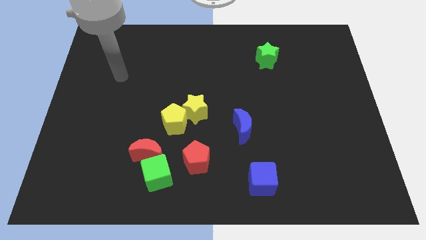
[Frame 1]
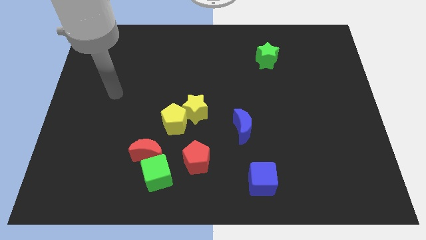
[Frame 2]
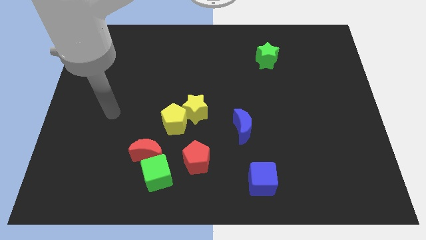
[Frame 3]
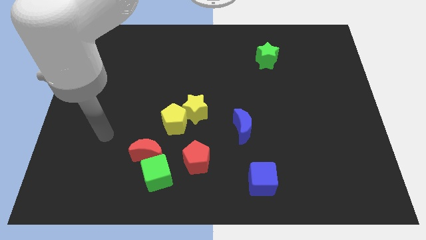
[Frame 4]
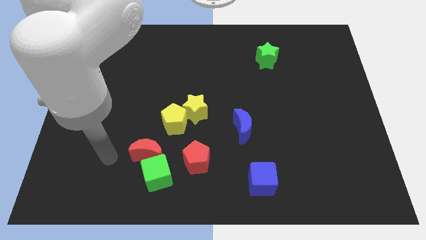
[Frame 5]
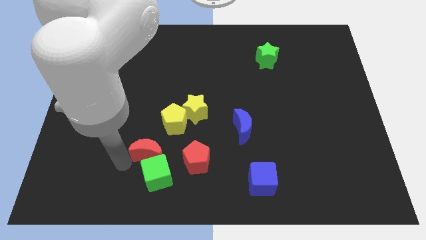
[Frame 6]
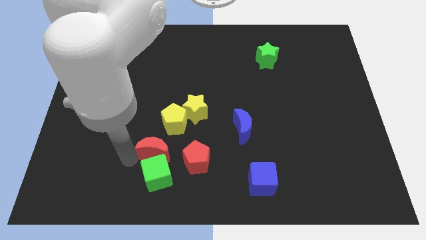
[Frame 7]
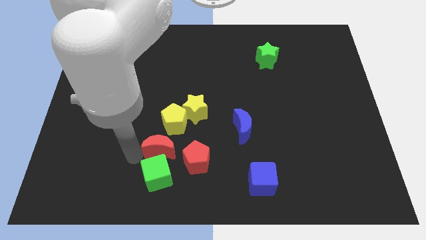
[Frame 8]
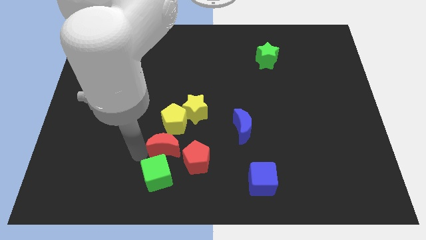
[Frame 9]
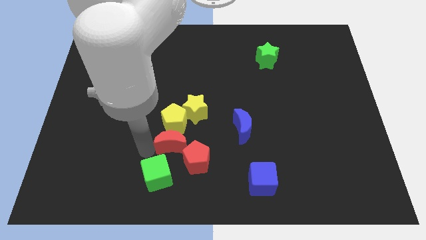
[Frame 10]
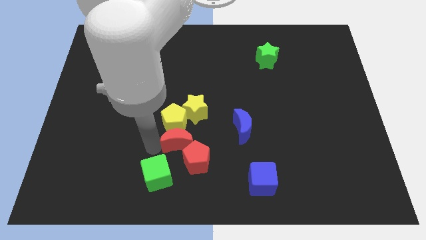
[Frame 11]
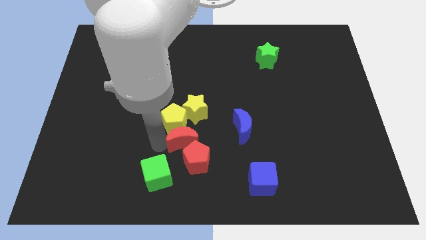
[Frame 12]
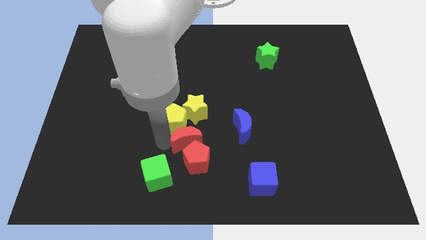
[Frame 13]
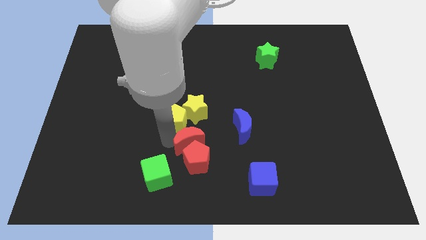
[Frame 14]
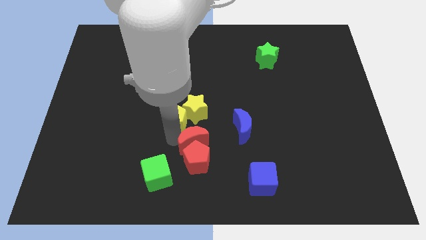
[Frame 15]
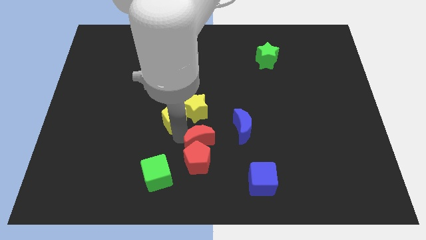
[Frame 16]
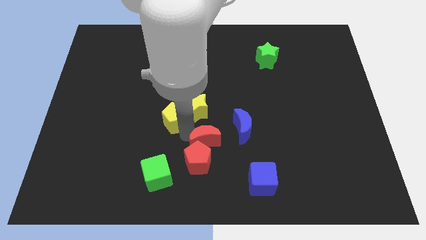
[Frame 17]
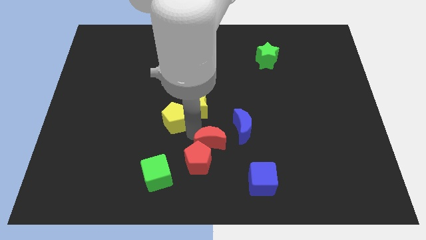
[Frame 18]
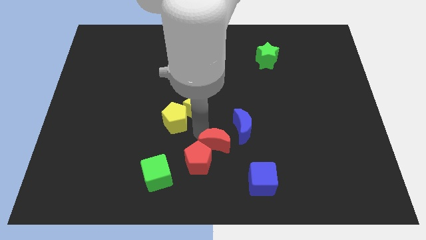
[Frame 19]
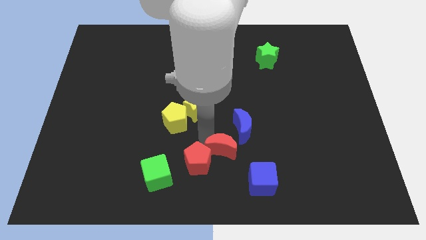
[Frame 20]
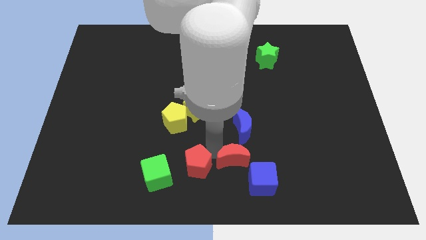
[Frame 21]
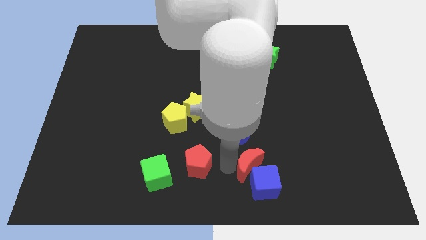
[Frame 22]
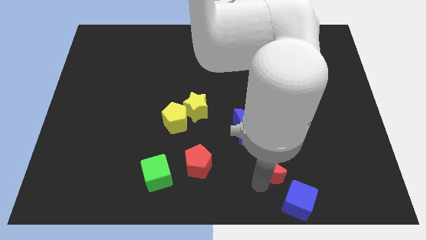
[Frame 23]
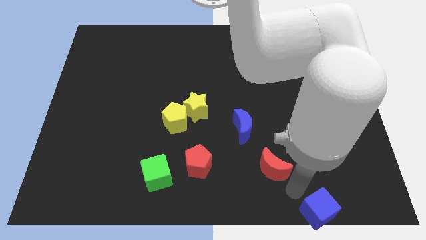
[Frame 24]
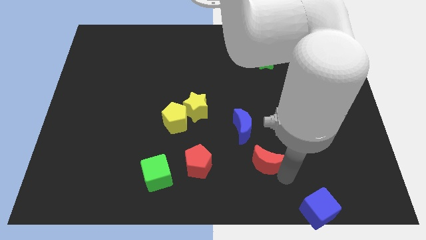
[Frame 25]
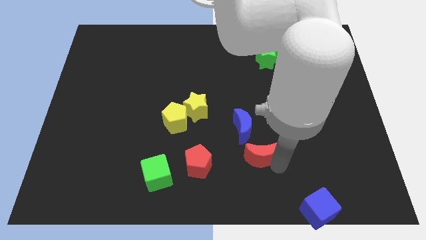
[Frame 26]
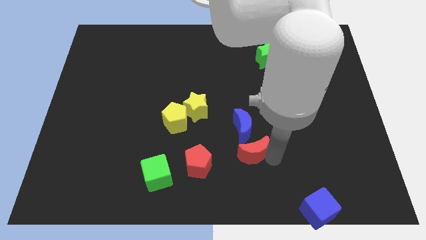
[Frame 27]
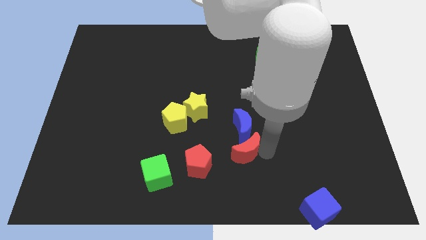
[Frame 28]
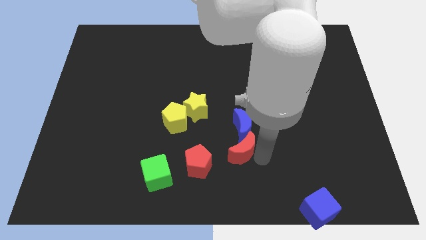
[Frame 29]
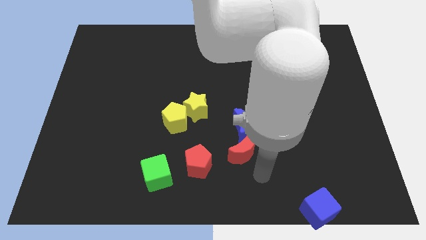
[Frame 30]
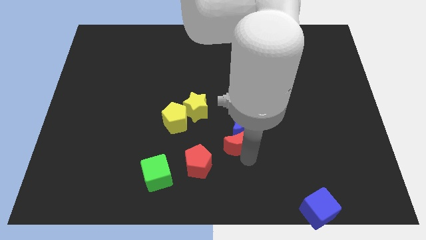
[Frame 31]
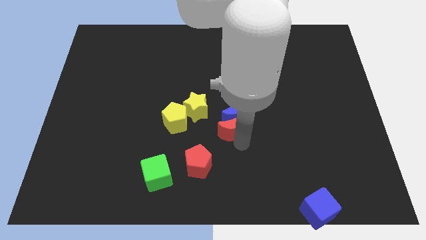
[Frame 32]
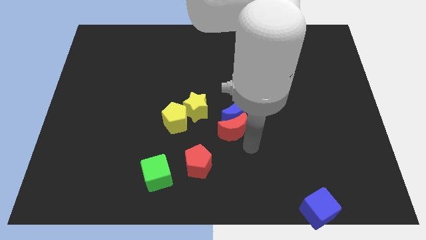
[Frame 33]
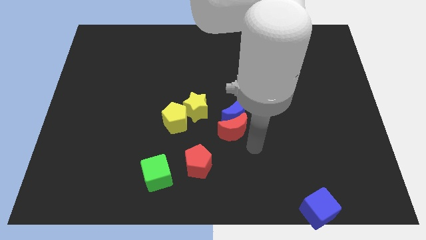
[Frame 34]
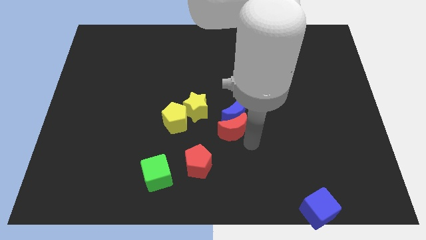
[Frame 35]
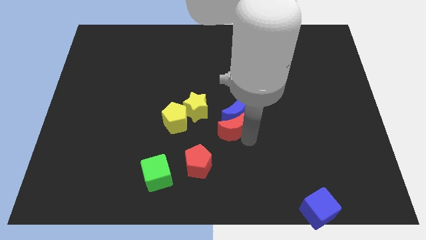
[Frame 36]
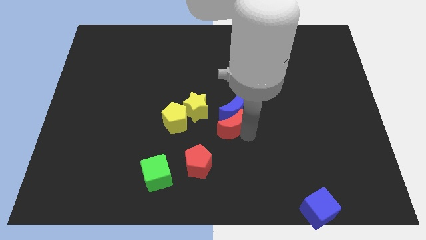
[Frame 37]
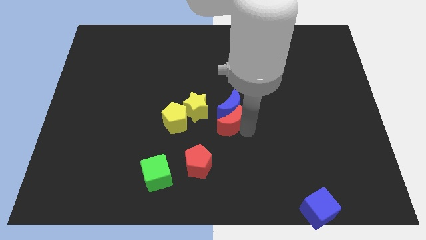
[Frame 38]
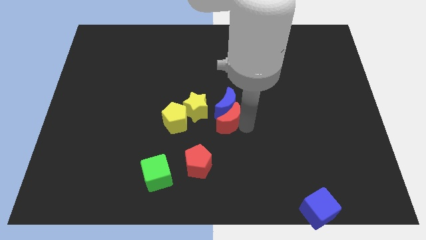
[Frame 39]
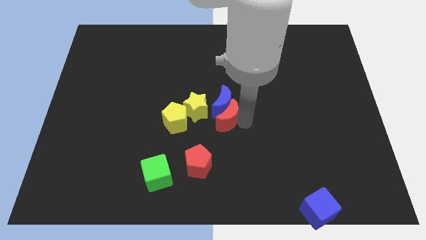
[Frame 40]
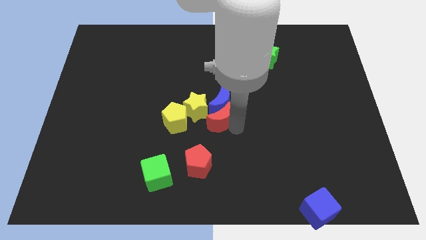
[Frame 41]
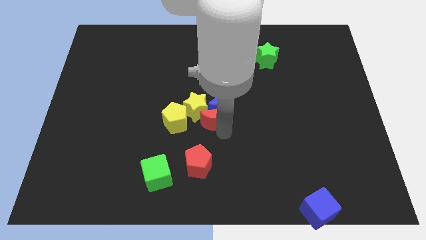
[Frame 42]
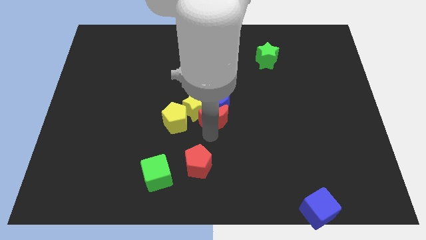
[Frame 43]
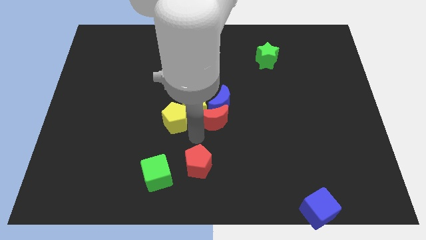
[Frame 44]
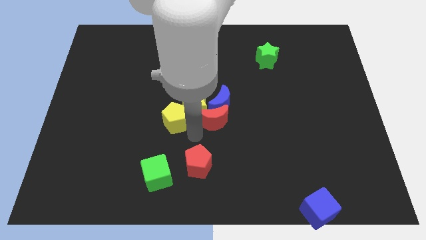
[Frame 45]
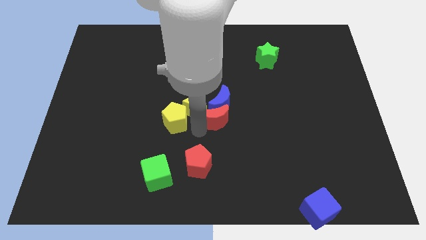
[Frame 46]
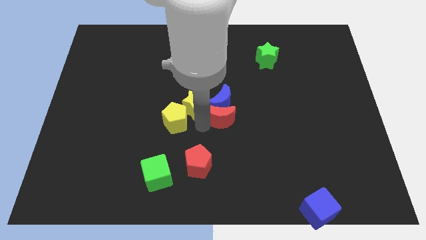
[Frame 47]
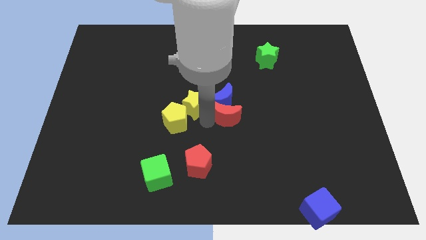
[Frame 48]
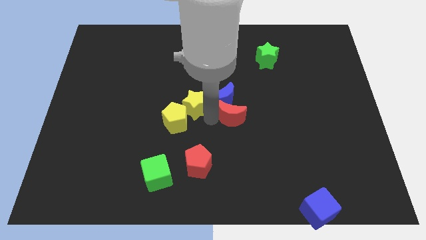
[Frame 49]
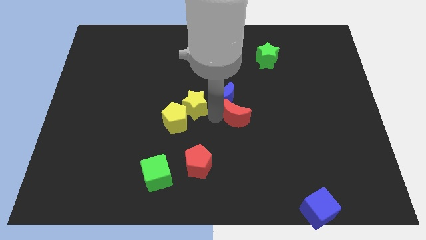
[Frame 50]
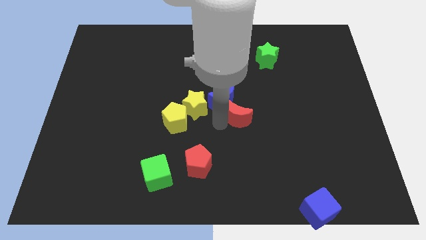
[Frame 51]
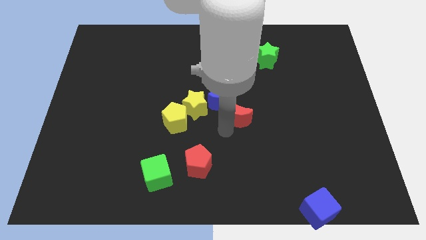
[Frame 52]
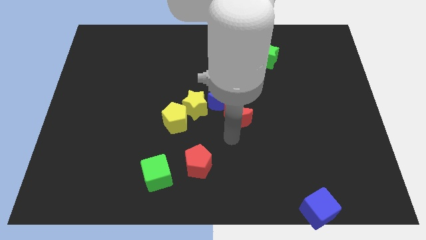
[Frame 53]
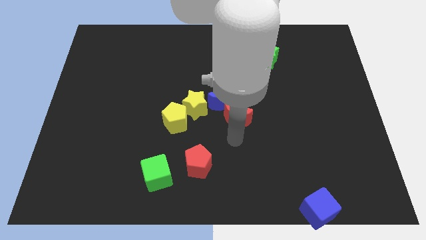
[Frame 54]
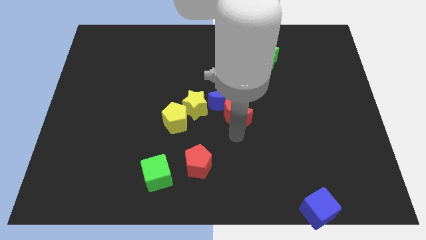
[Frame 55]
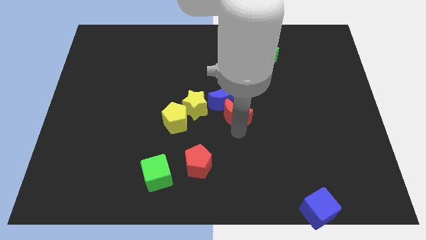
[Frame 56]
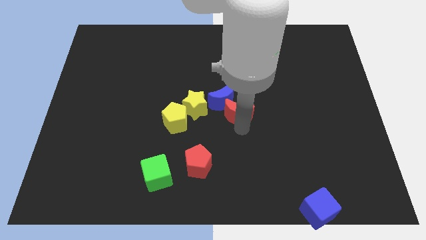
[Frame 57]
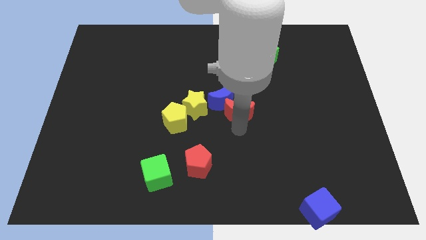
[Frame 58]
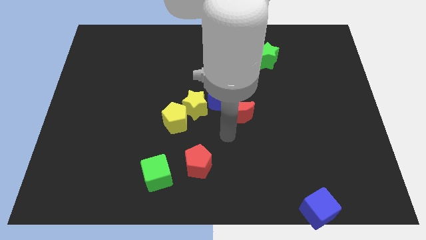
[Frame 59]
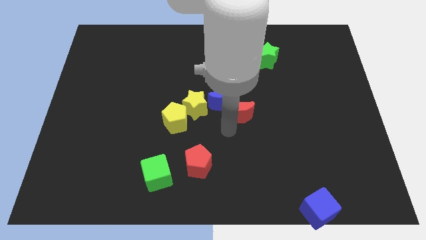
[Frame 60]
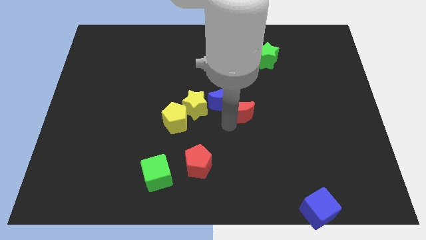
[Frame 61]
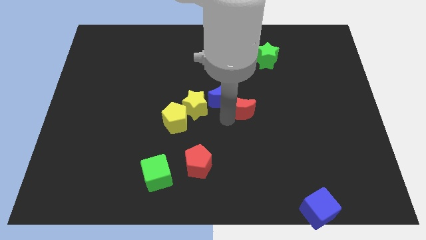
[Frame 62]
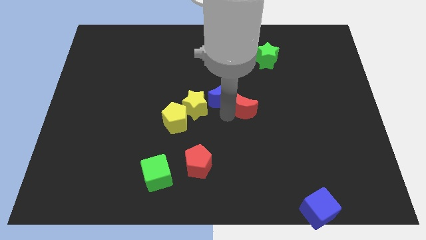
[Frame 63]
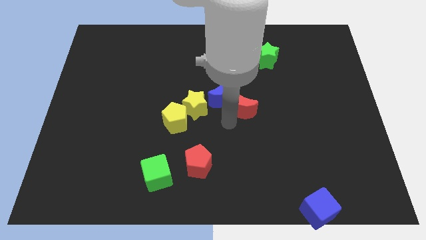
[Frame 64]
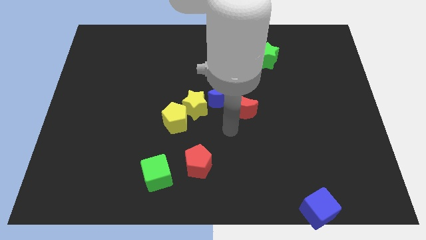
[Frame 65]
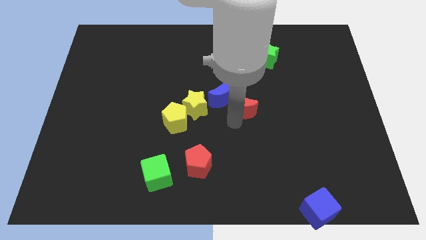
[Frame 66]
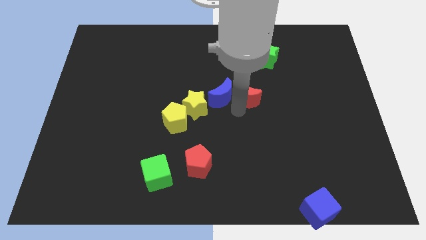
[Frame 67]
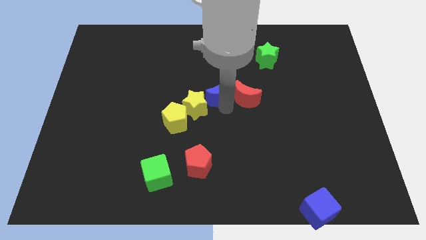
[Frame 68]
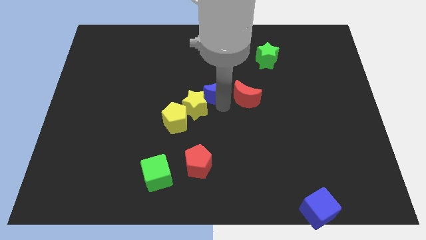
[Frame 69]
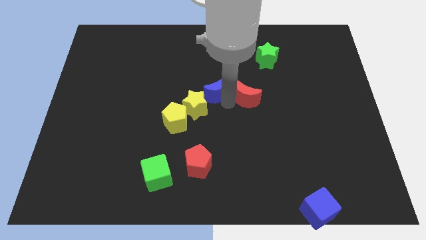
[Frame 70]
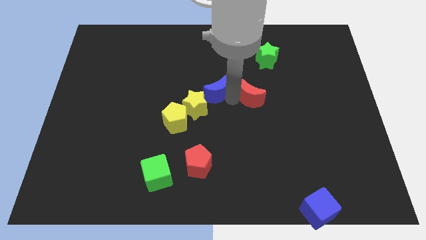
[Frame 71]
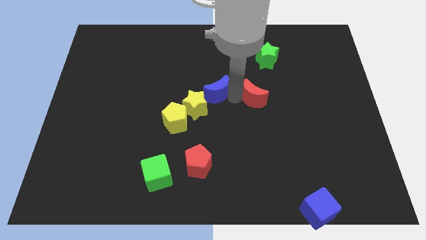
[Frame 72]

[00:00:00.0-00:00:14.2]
push the red moon below the green star
